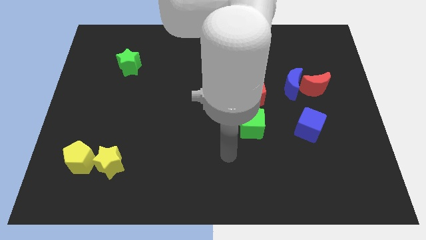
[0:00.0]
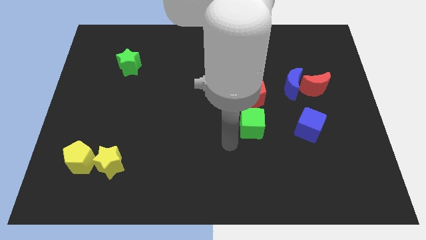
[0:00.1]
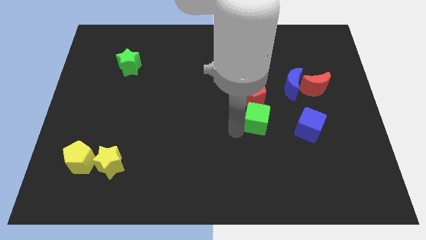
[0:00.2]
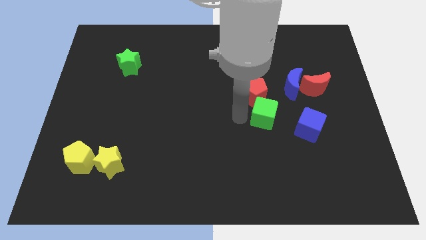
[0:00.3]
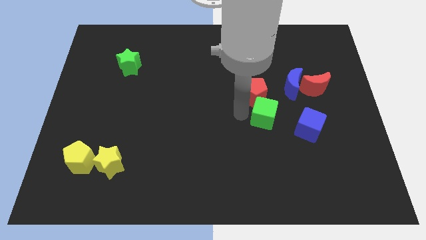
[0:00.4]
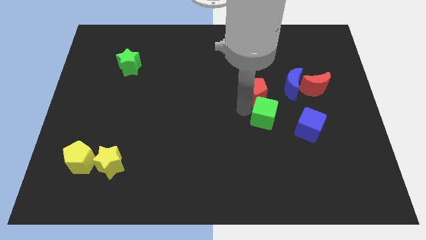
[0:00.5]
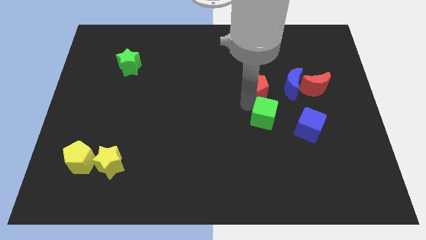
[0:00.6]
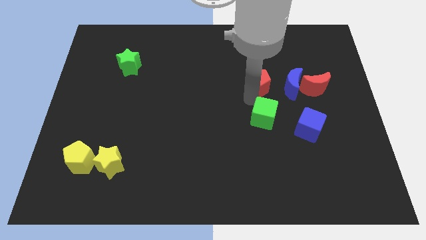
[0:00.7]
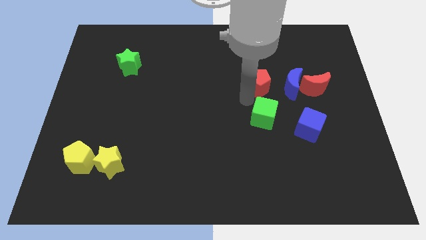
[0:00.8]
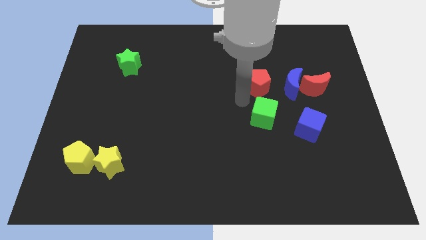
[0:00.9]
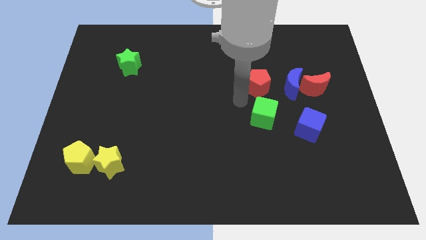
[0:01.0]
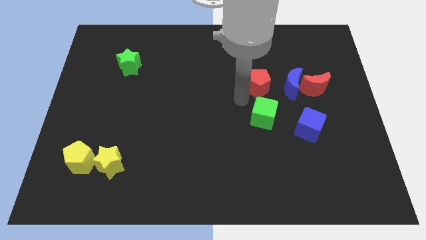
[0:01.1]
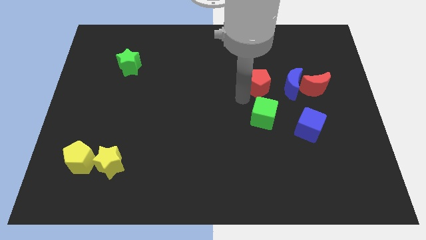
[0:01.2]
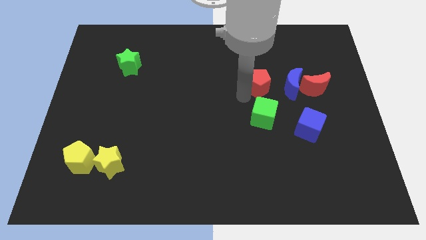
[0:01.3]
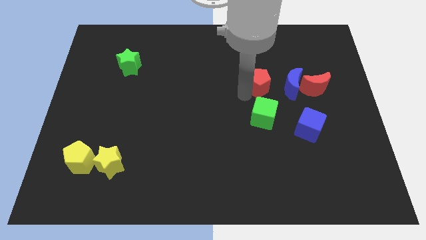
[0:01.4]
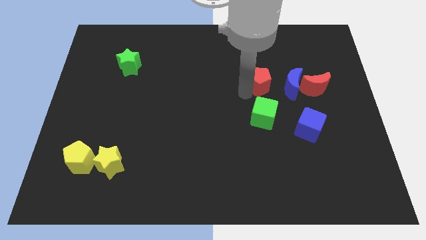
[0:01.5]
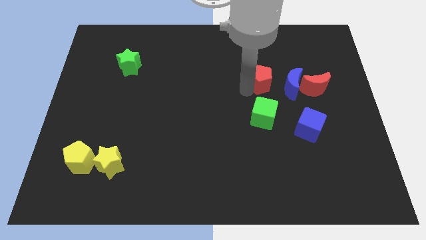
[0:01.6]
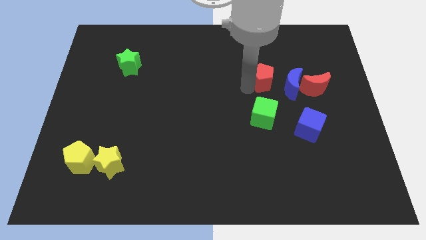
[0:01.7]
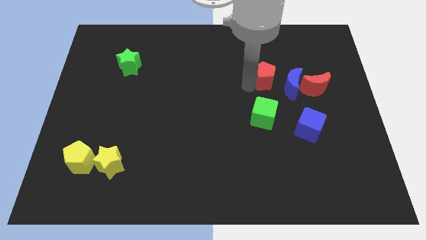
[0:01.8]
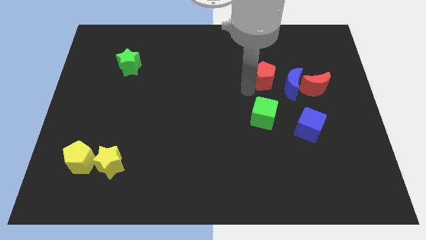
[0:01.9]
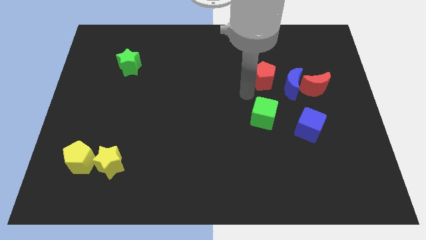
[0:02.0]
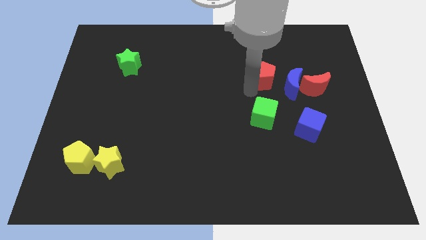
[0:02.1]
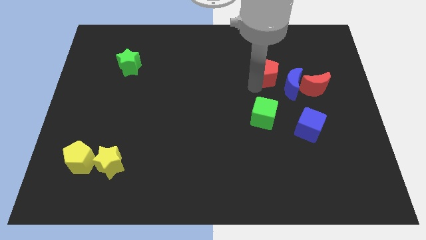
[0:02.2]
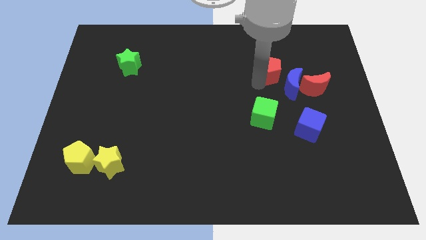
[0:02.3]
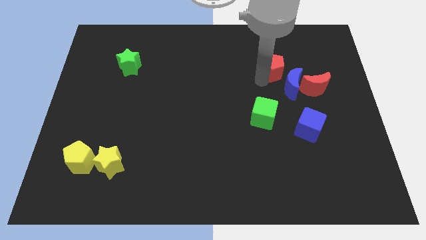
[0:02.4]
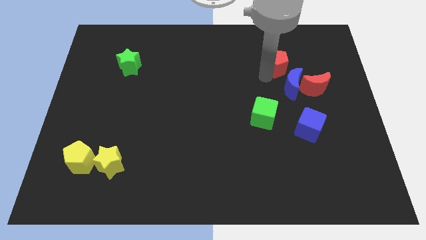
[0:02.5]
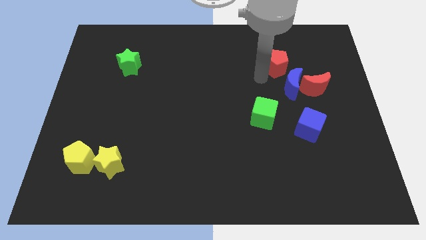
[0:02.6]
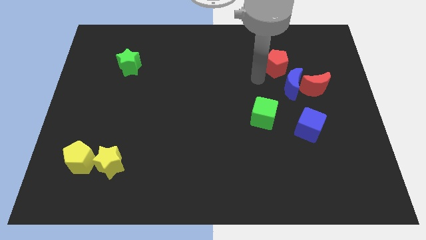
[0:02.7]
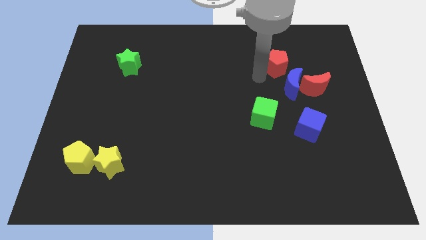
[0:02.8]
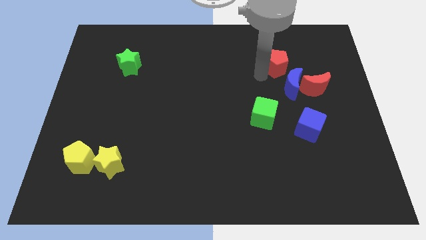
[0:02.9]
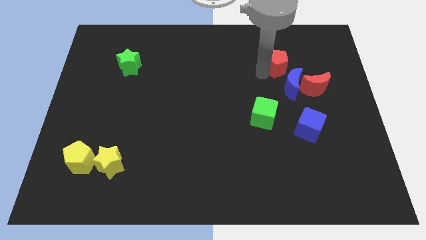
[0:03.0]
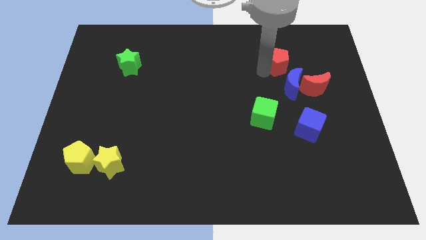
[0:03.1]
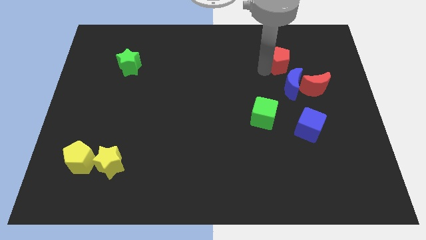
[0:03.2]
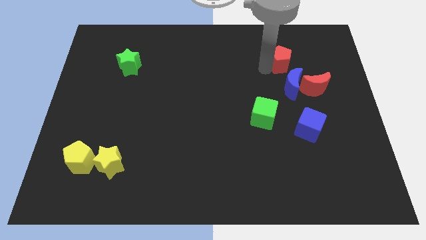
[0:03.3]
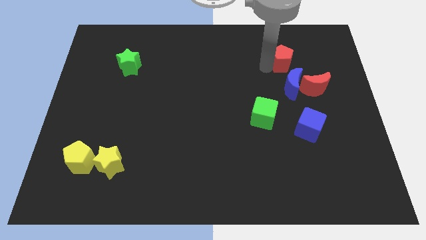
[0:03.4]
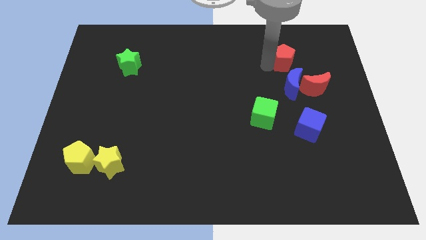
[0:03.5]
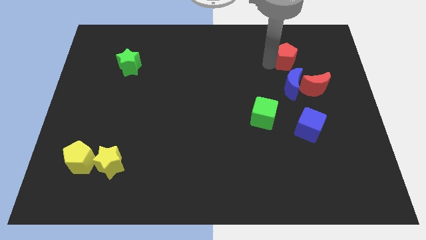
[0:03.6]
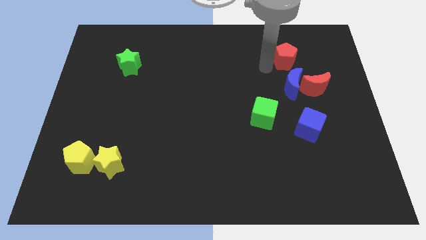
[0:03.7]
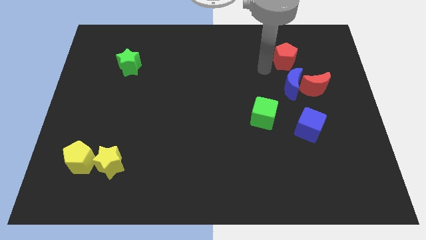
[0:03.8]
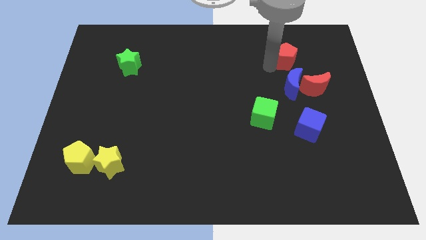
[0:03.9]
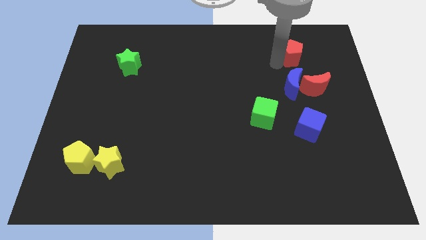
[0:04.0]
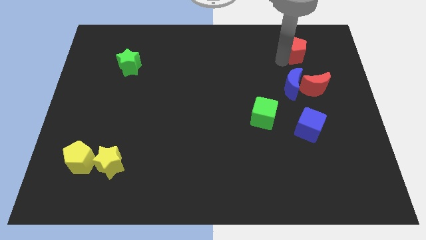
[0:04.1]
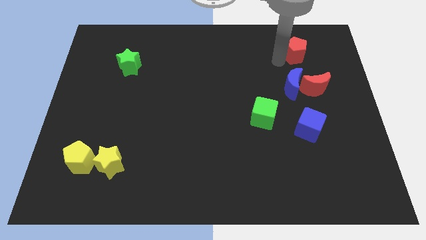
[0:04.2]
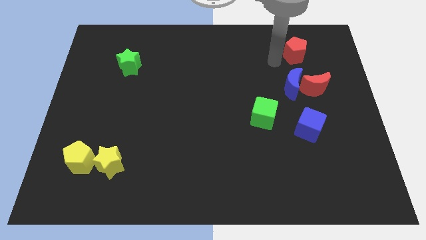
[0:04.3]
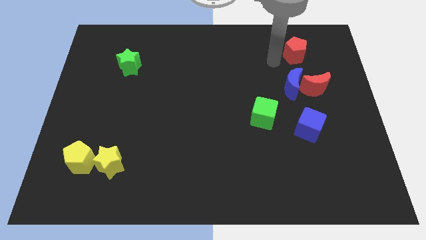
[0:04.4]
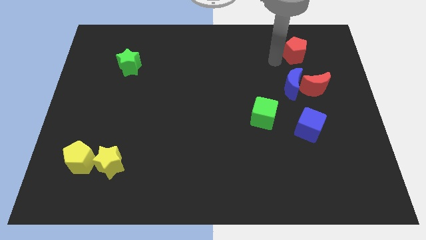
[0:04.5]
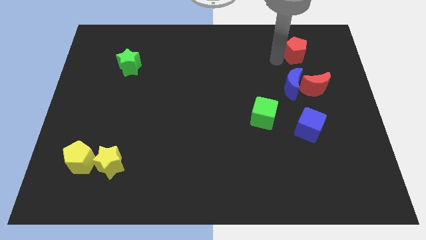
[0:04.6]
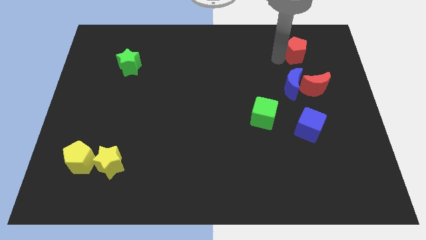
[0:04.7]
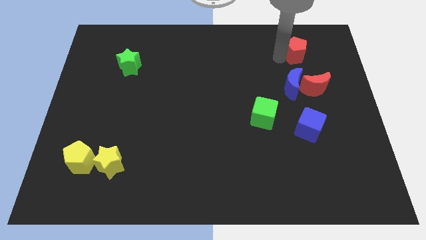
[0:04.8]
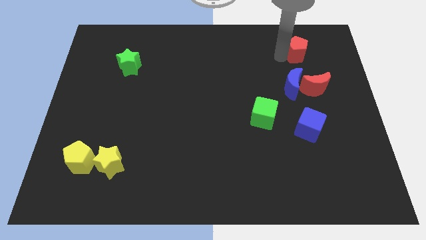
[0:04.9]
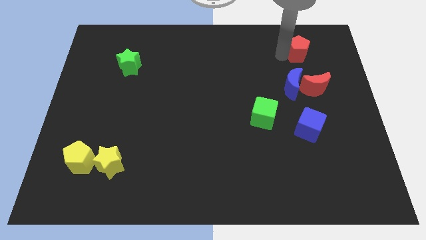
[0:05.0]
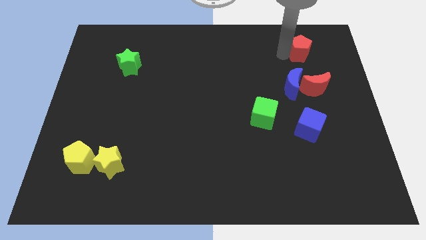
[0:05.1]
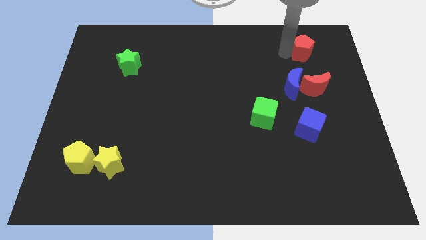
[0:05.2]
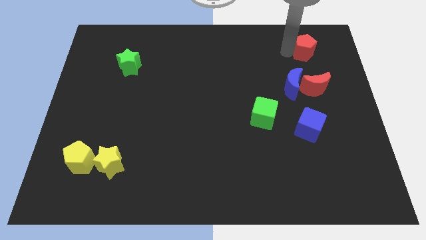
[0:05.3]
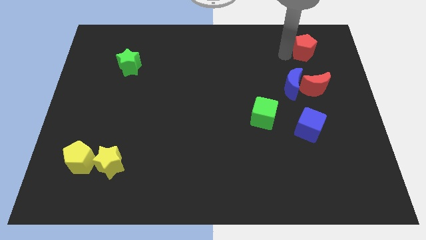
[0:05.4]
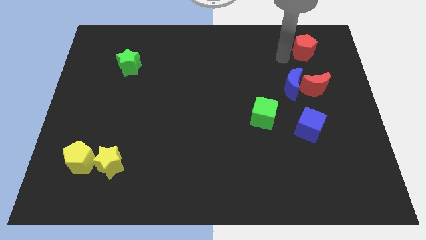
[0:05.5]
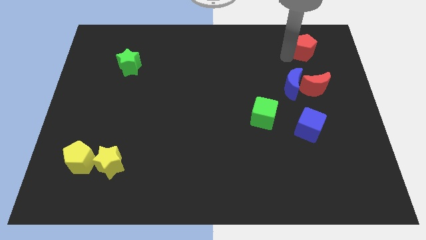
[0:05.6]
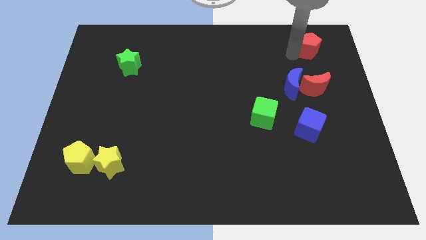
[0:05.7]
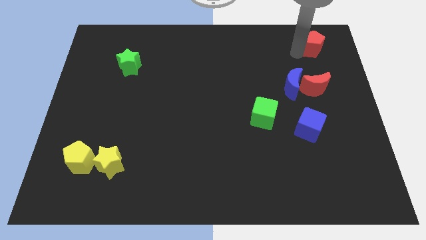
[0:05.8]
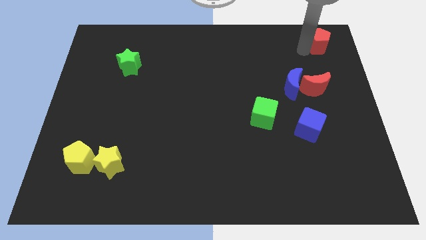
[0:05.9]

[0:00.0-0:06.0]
put the red pentagon to the top right corner
